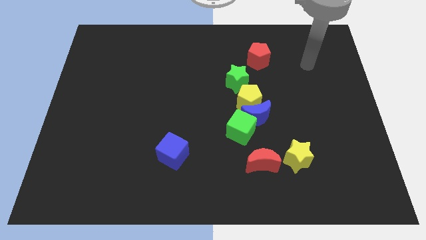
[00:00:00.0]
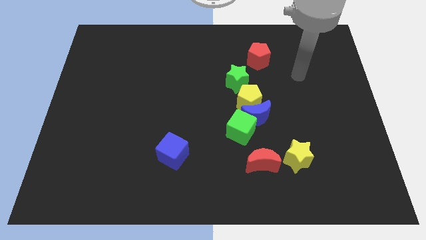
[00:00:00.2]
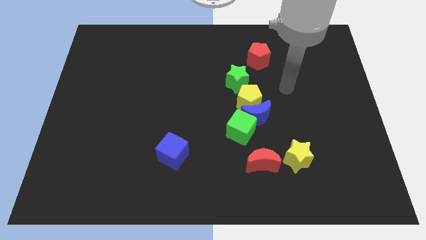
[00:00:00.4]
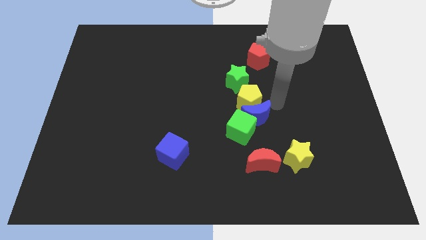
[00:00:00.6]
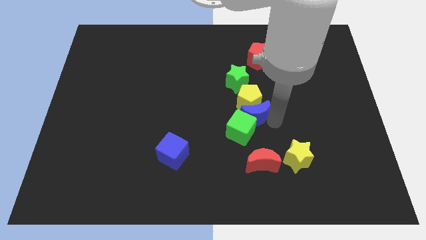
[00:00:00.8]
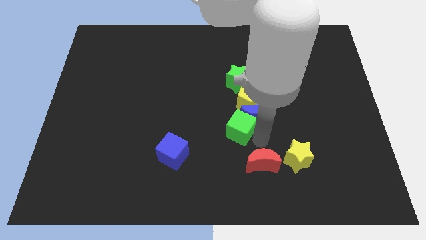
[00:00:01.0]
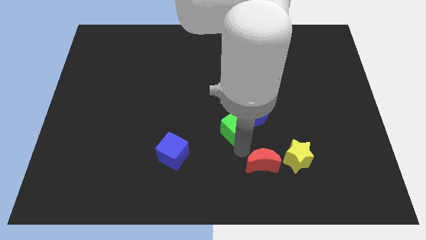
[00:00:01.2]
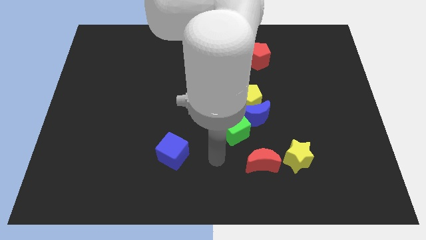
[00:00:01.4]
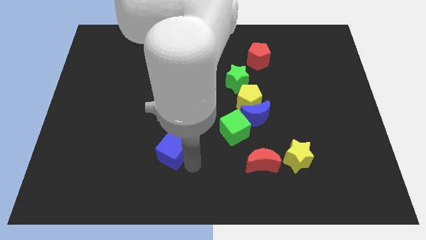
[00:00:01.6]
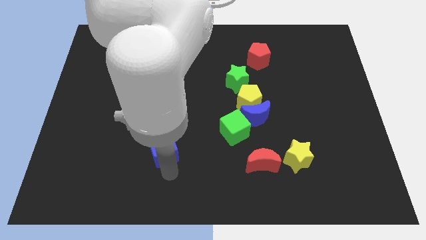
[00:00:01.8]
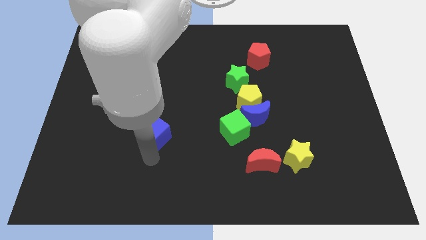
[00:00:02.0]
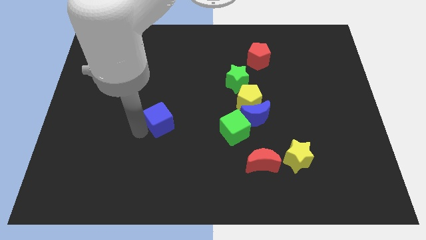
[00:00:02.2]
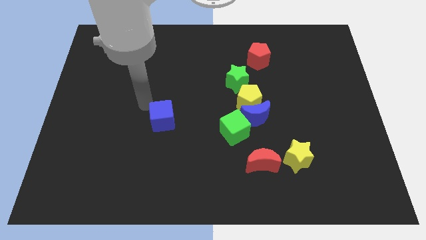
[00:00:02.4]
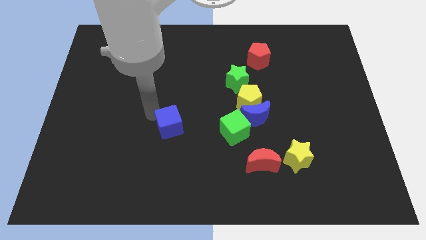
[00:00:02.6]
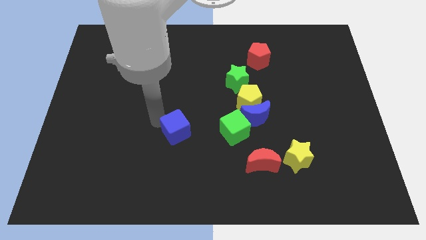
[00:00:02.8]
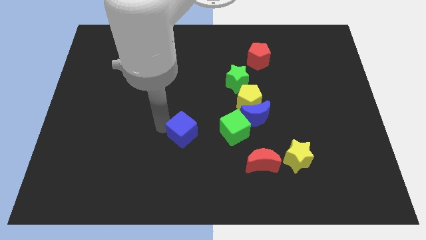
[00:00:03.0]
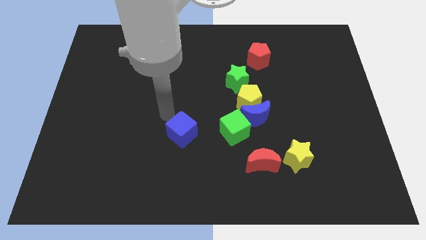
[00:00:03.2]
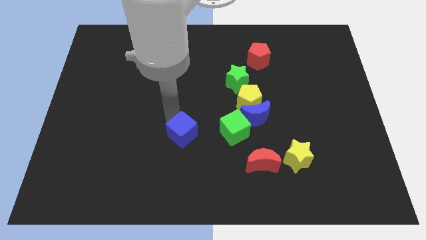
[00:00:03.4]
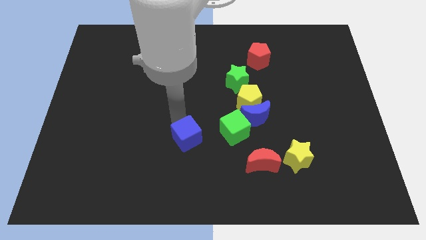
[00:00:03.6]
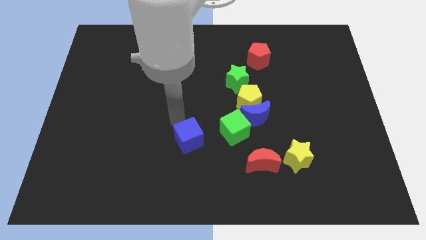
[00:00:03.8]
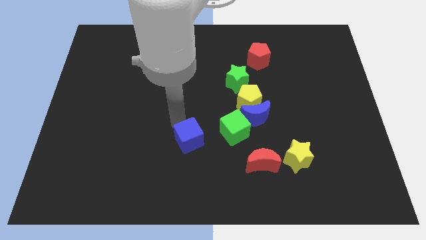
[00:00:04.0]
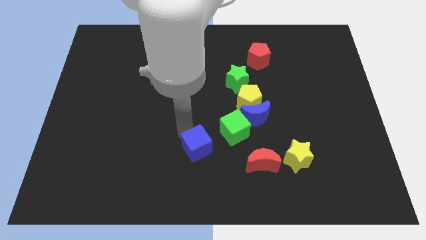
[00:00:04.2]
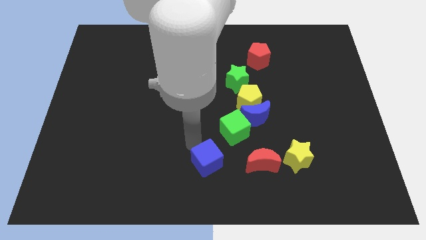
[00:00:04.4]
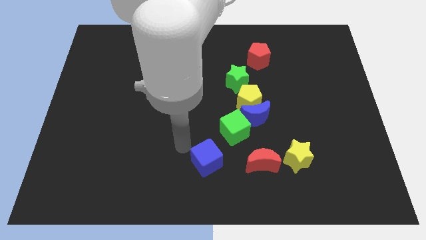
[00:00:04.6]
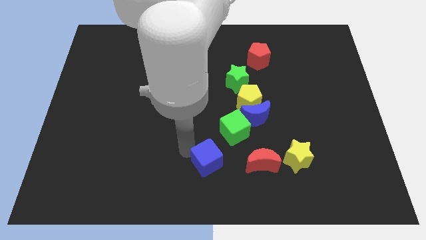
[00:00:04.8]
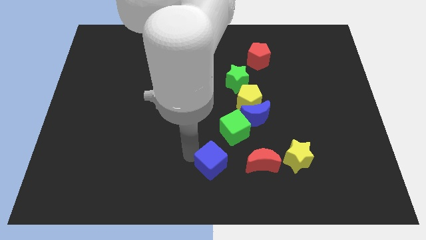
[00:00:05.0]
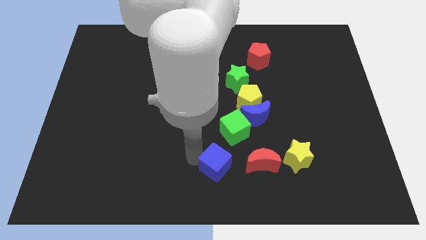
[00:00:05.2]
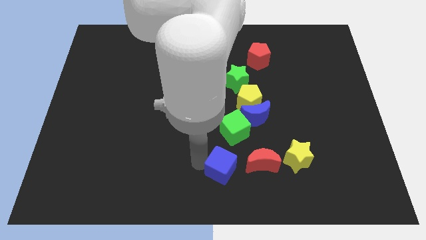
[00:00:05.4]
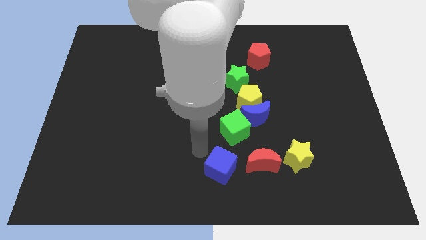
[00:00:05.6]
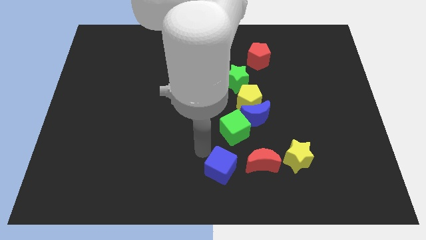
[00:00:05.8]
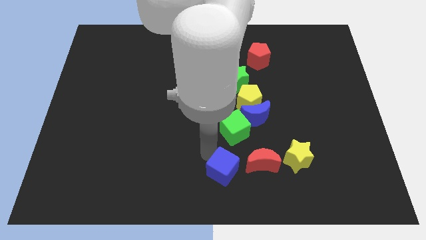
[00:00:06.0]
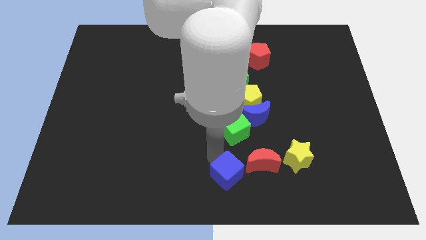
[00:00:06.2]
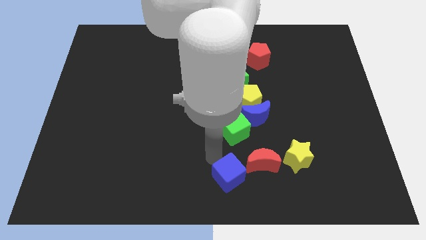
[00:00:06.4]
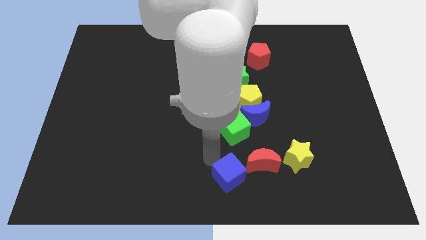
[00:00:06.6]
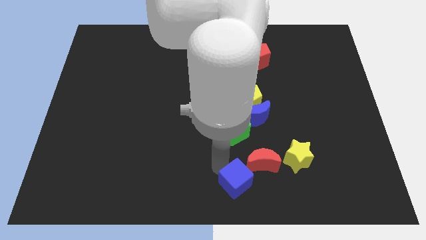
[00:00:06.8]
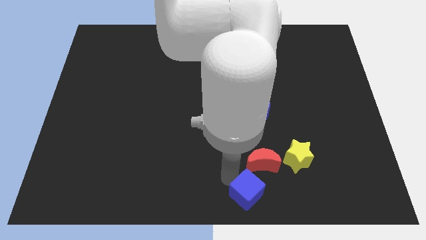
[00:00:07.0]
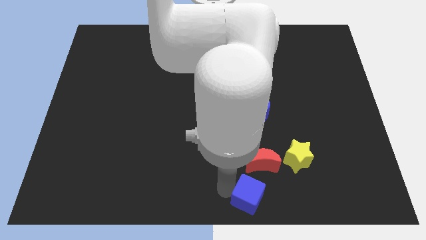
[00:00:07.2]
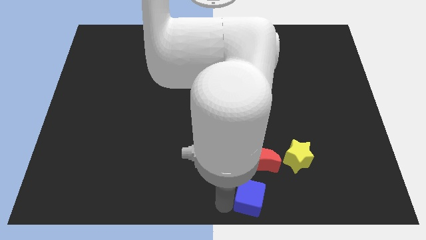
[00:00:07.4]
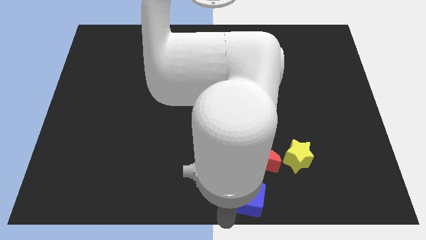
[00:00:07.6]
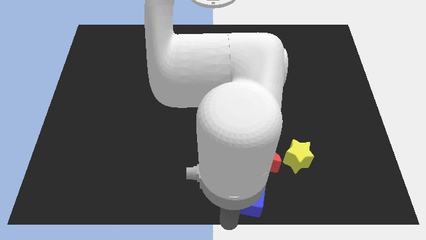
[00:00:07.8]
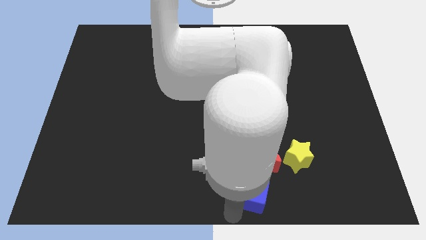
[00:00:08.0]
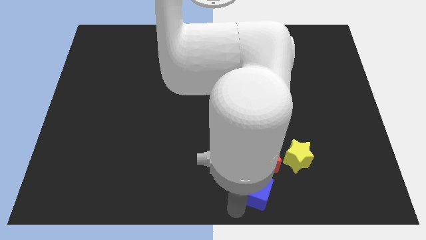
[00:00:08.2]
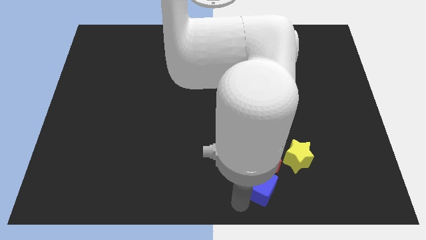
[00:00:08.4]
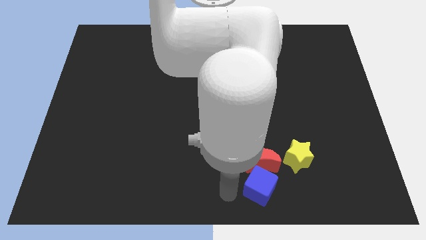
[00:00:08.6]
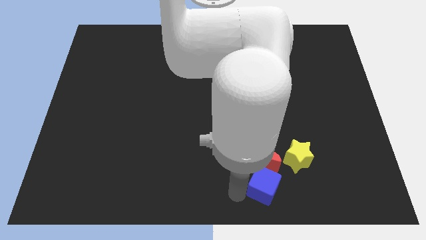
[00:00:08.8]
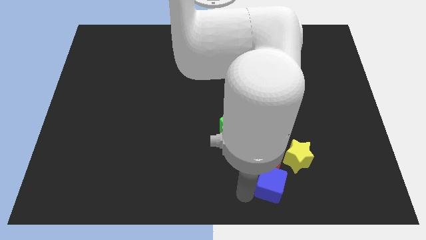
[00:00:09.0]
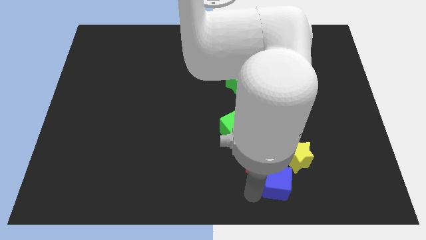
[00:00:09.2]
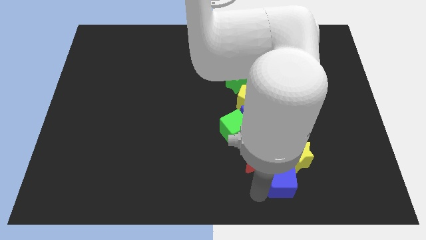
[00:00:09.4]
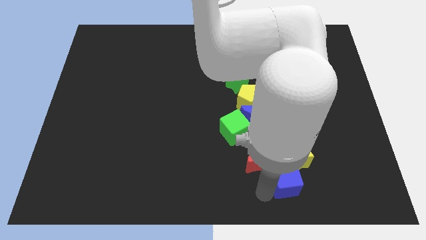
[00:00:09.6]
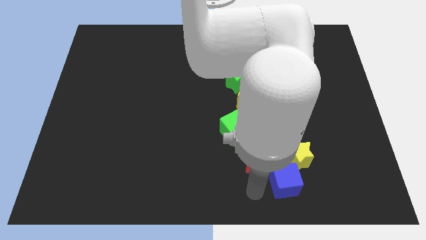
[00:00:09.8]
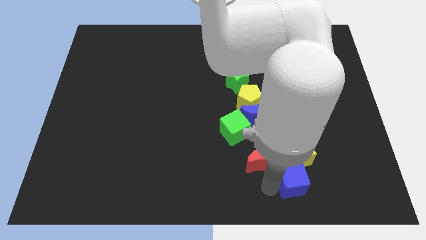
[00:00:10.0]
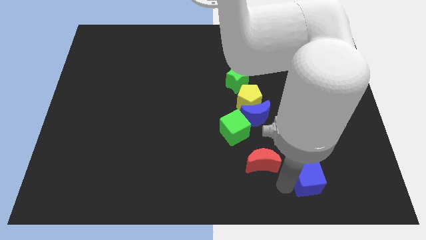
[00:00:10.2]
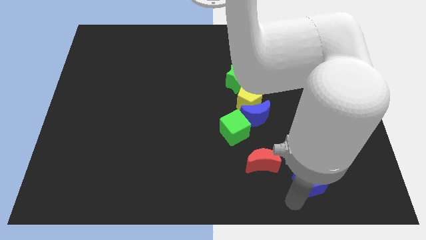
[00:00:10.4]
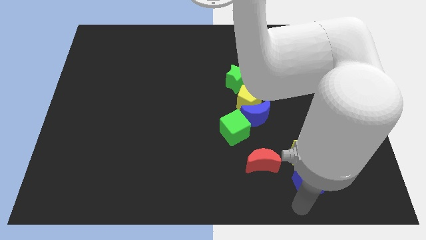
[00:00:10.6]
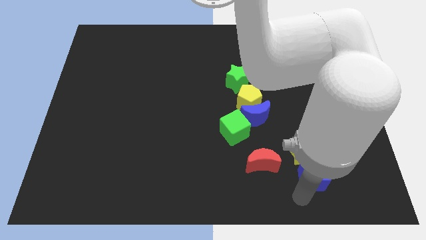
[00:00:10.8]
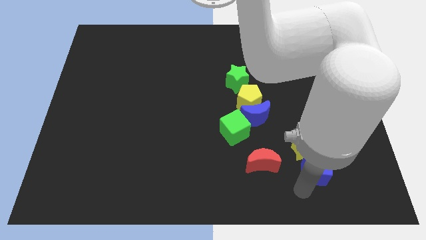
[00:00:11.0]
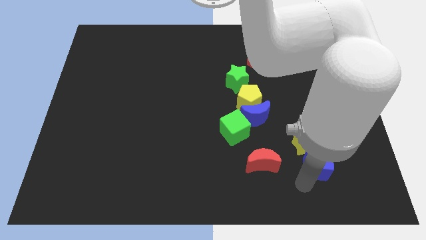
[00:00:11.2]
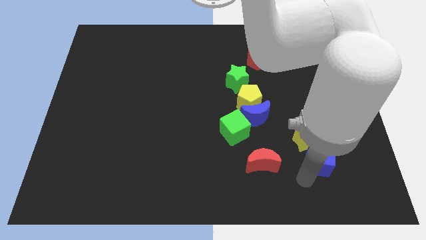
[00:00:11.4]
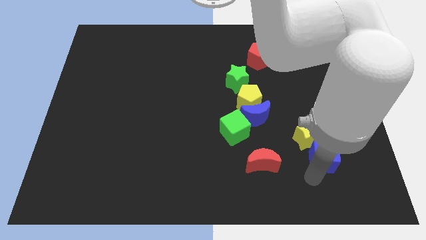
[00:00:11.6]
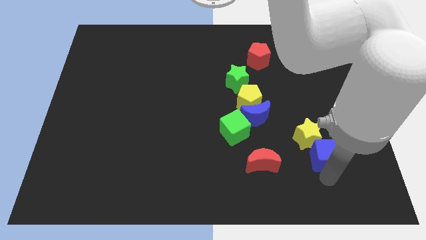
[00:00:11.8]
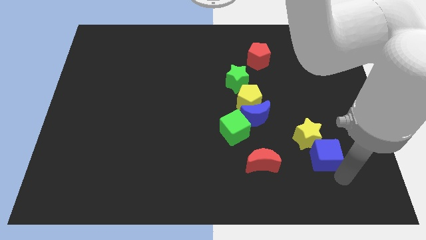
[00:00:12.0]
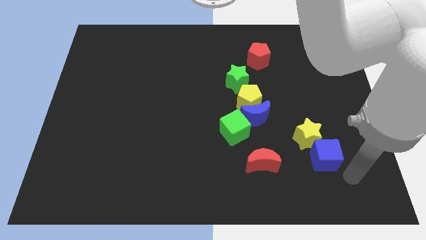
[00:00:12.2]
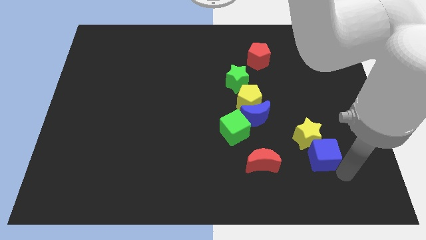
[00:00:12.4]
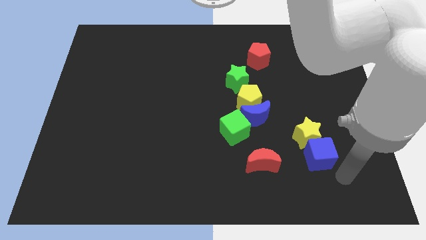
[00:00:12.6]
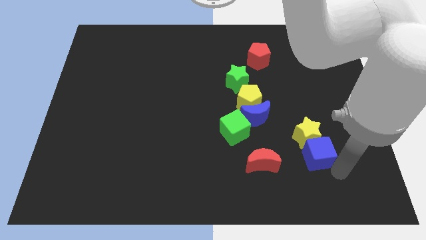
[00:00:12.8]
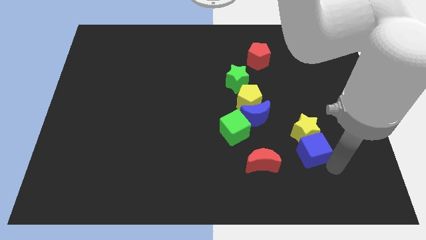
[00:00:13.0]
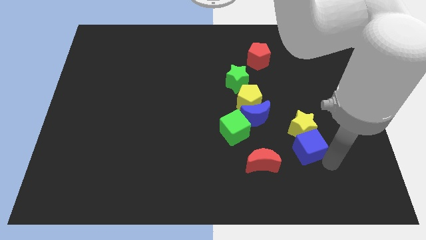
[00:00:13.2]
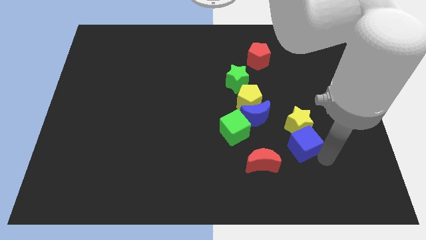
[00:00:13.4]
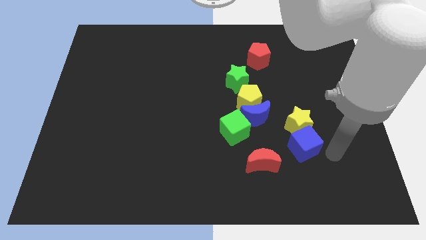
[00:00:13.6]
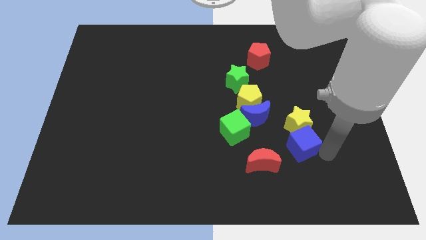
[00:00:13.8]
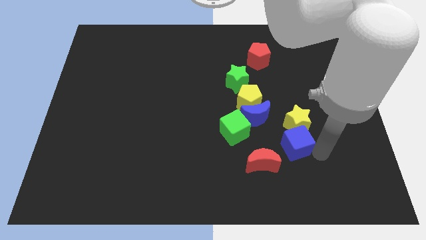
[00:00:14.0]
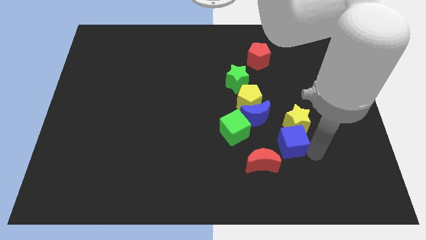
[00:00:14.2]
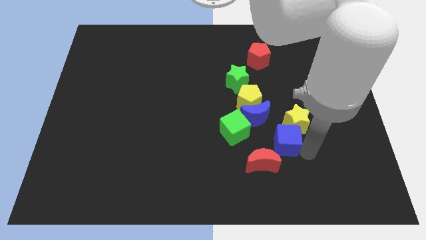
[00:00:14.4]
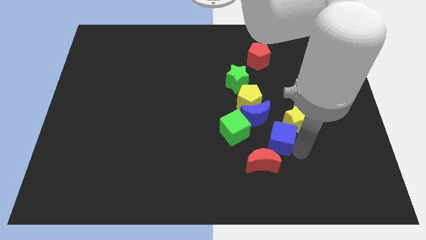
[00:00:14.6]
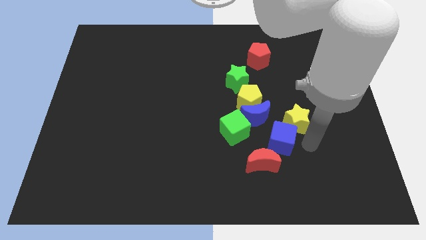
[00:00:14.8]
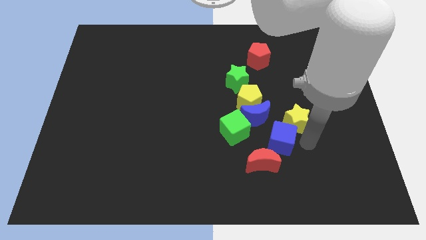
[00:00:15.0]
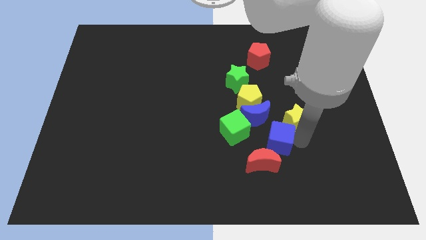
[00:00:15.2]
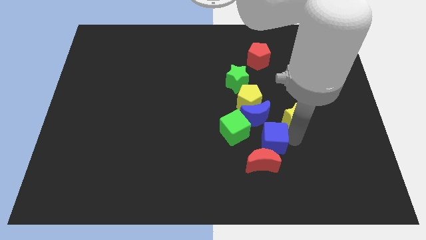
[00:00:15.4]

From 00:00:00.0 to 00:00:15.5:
slide the blue cube to the bottom side of the yellow pentagon
